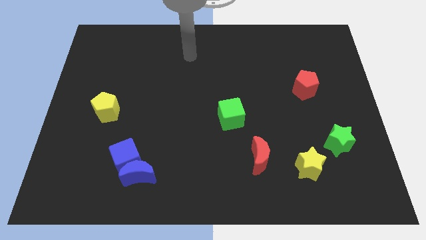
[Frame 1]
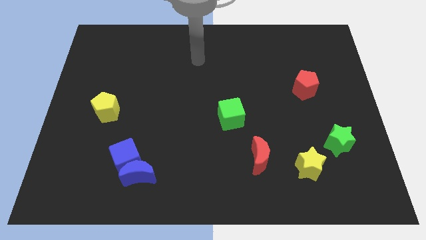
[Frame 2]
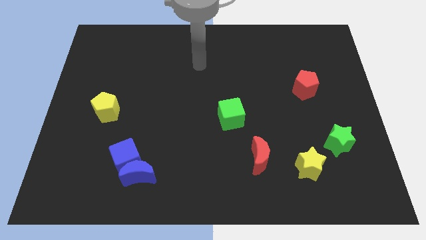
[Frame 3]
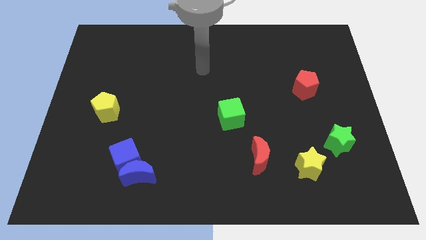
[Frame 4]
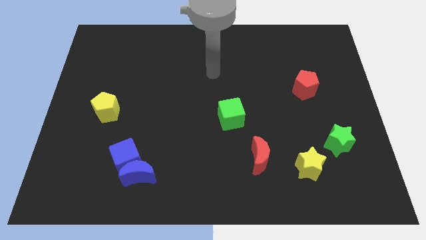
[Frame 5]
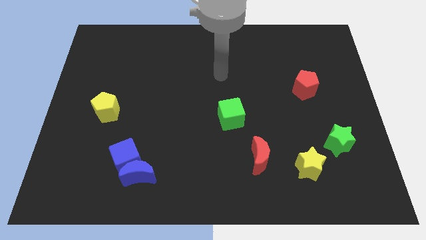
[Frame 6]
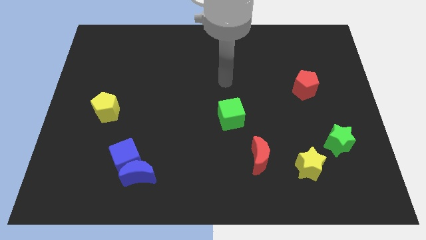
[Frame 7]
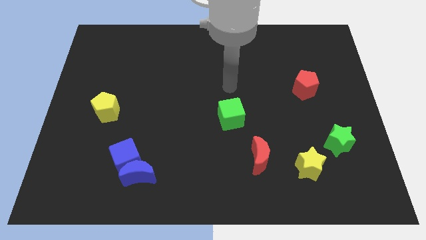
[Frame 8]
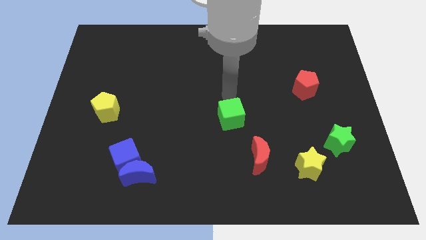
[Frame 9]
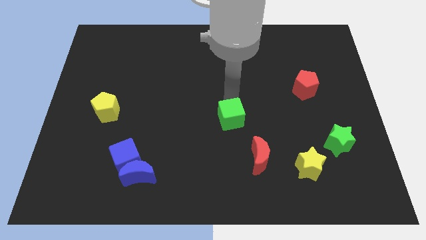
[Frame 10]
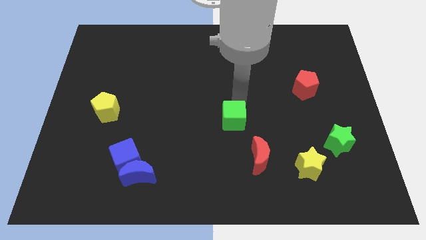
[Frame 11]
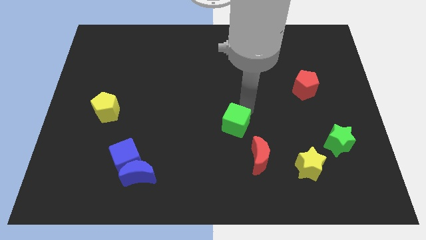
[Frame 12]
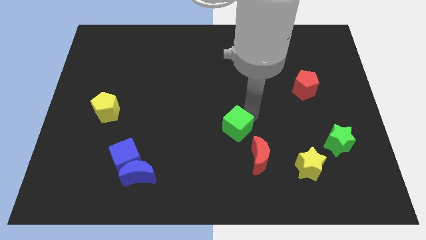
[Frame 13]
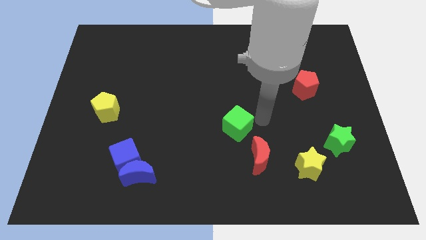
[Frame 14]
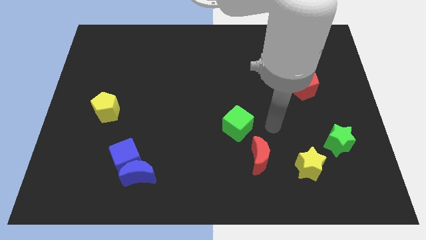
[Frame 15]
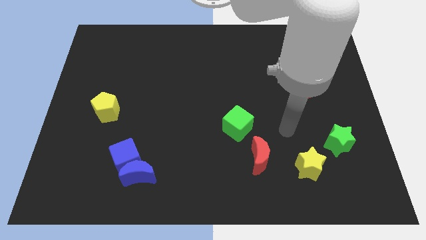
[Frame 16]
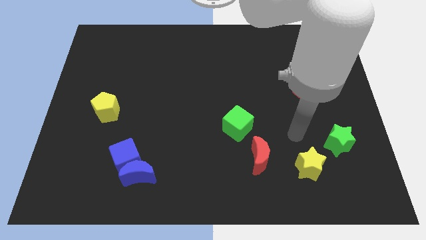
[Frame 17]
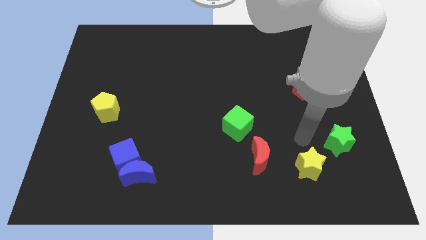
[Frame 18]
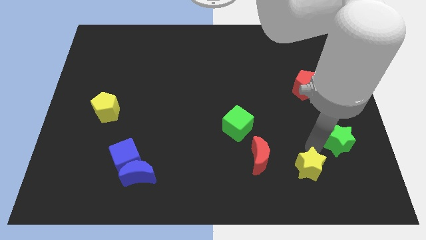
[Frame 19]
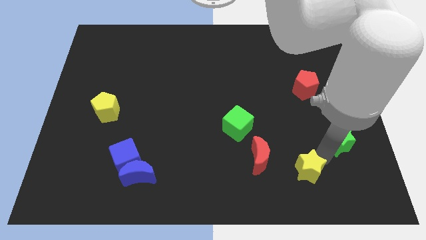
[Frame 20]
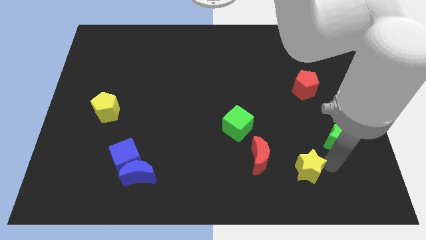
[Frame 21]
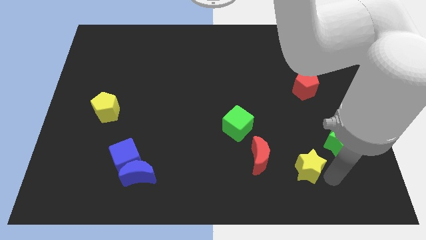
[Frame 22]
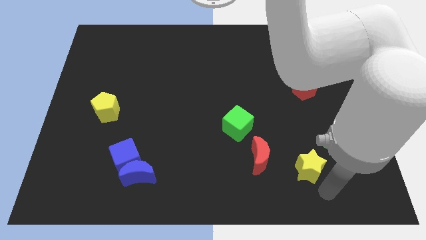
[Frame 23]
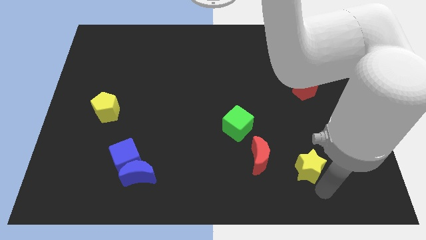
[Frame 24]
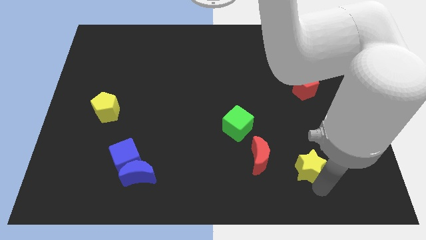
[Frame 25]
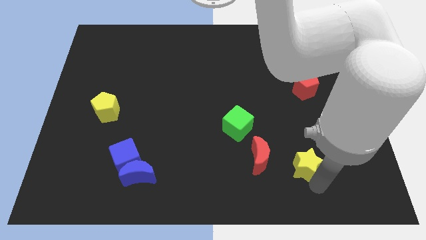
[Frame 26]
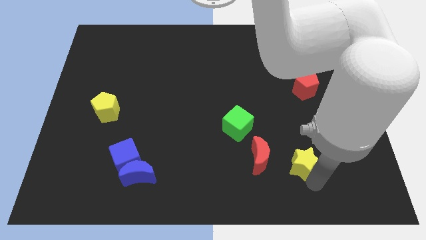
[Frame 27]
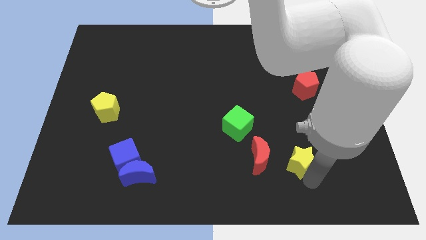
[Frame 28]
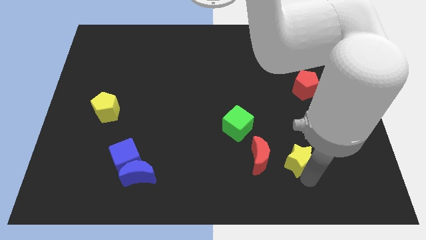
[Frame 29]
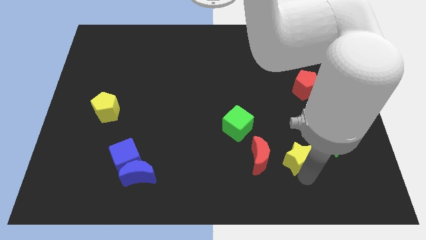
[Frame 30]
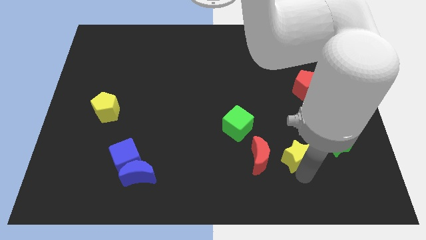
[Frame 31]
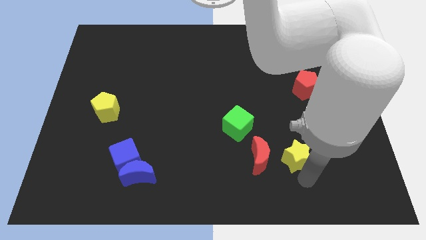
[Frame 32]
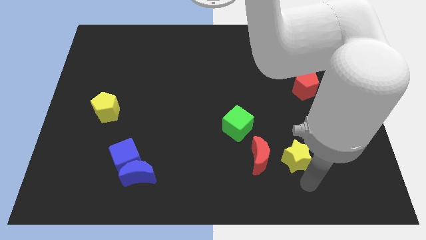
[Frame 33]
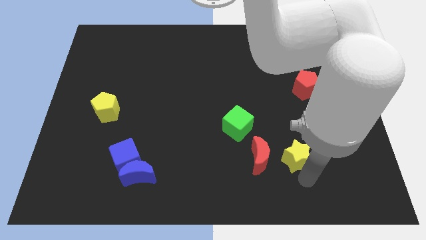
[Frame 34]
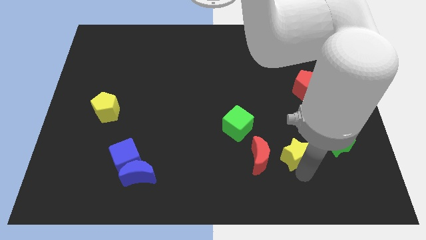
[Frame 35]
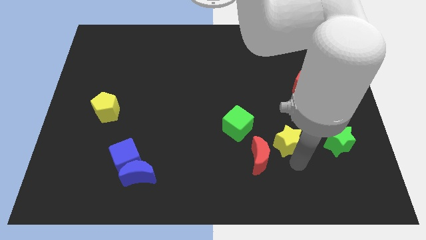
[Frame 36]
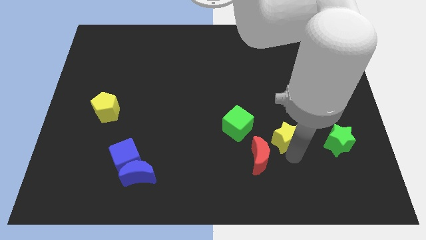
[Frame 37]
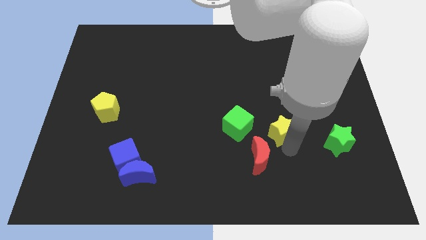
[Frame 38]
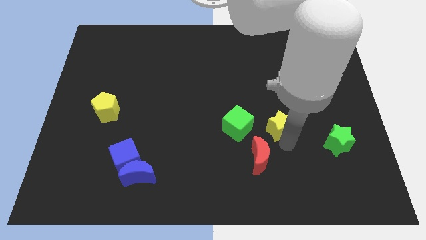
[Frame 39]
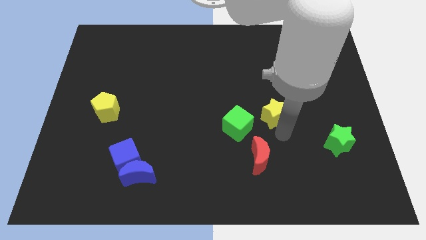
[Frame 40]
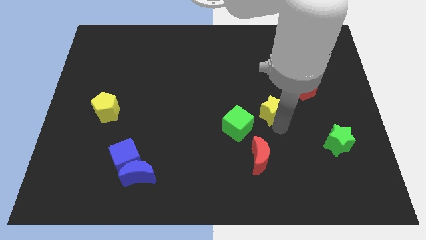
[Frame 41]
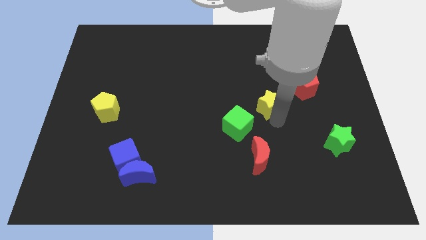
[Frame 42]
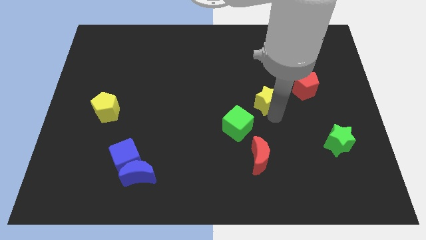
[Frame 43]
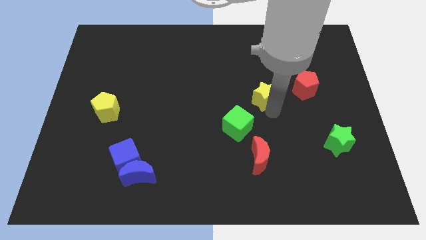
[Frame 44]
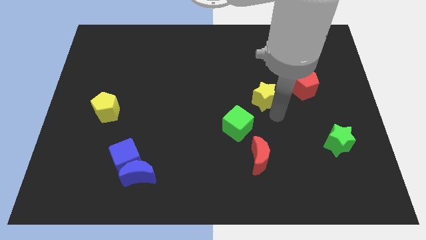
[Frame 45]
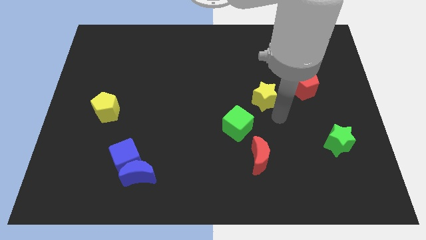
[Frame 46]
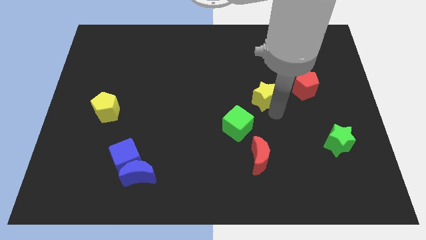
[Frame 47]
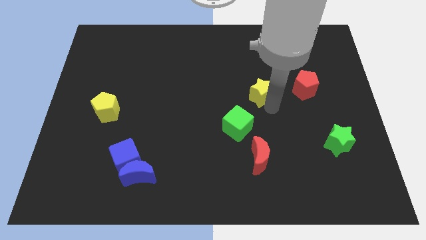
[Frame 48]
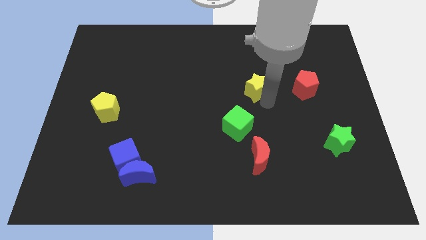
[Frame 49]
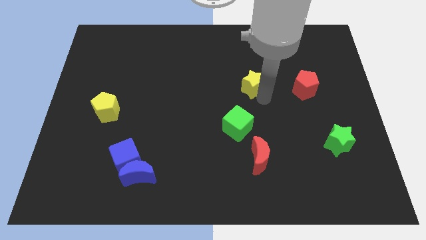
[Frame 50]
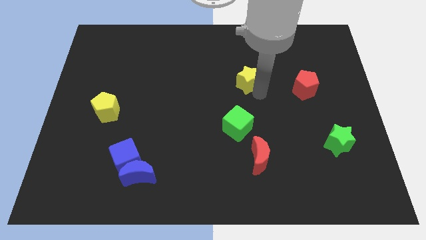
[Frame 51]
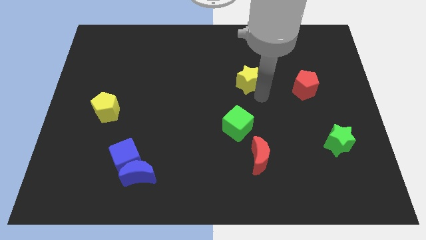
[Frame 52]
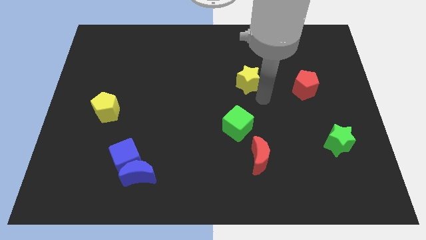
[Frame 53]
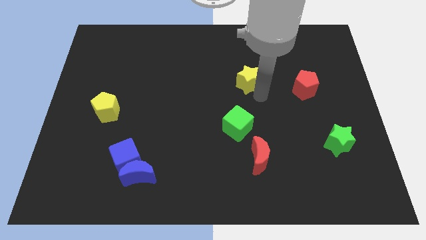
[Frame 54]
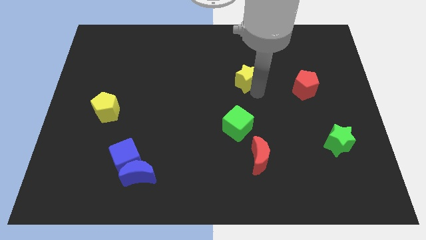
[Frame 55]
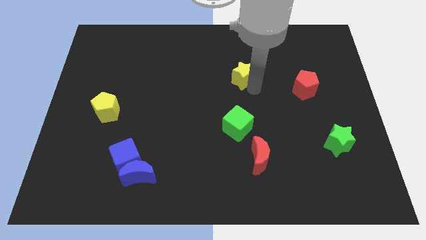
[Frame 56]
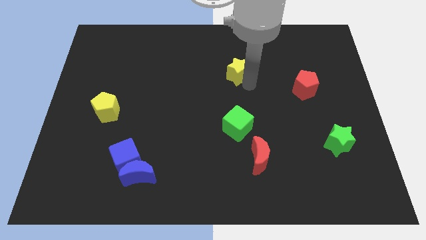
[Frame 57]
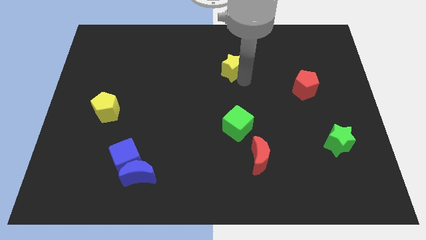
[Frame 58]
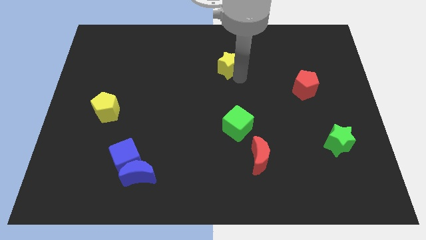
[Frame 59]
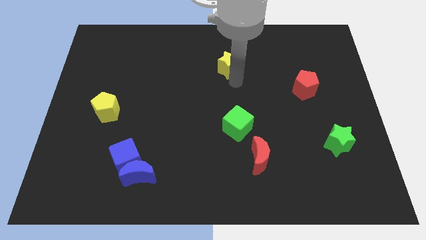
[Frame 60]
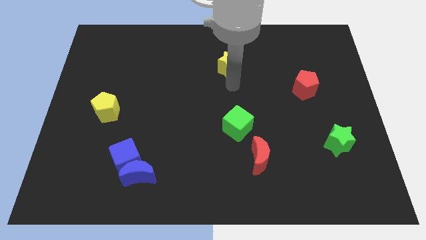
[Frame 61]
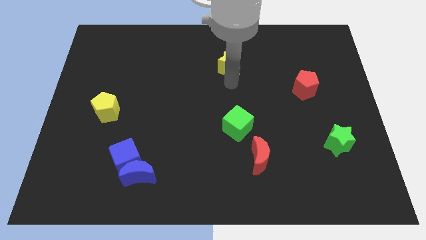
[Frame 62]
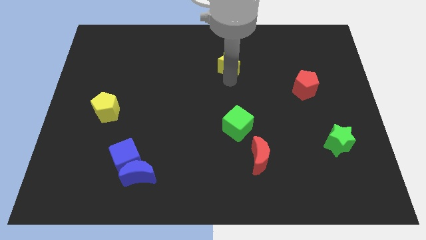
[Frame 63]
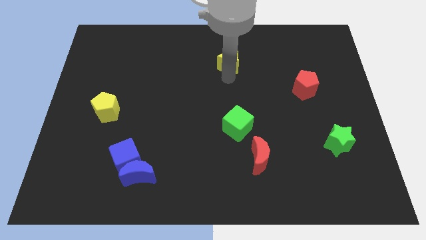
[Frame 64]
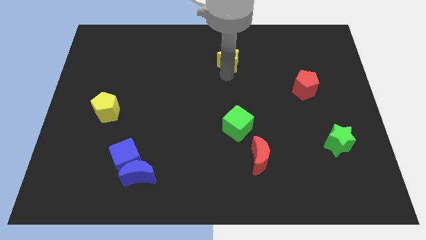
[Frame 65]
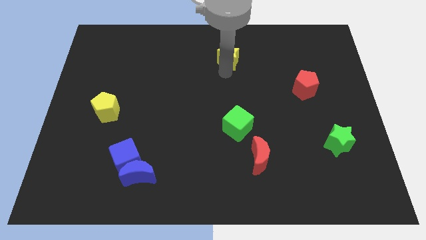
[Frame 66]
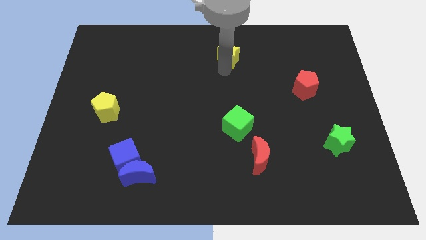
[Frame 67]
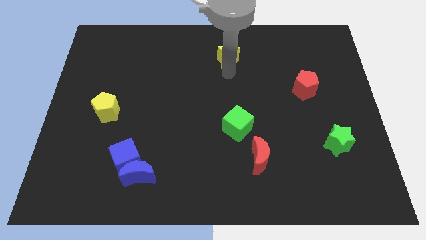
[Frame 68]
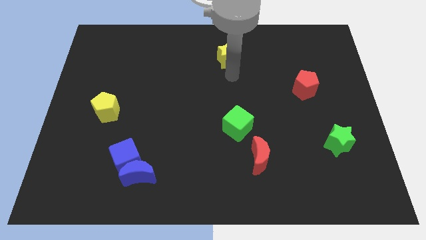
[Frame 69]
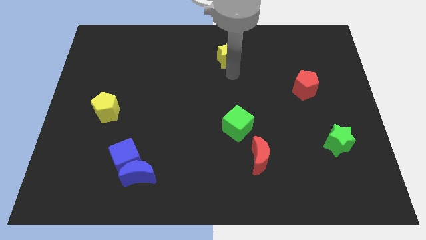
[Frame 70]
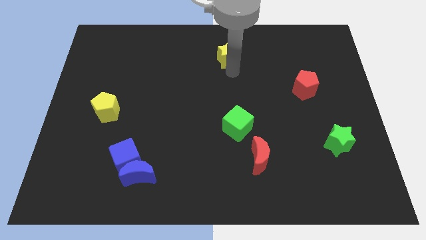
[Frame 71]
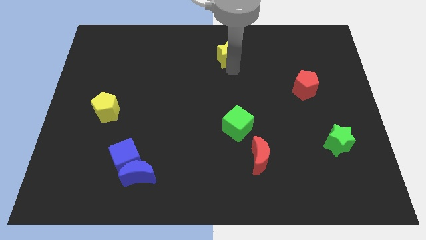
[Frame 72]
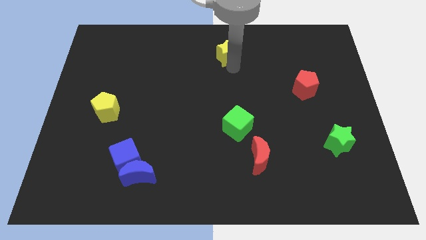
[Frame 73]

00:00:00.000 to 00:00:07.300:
put the yellow star to the top side
